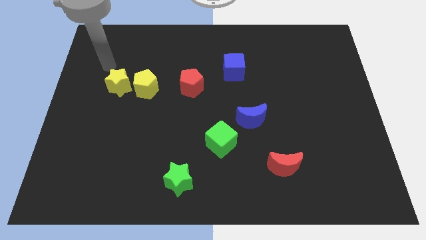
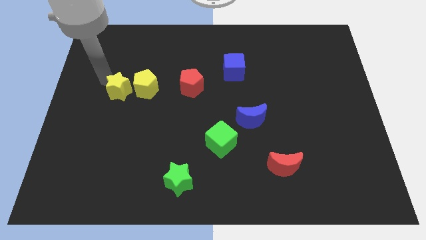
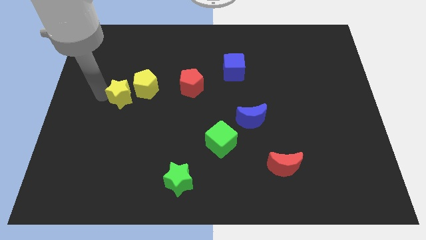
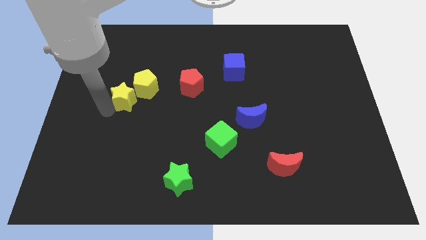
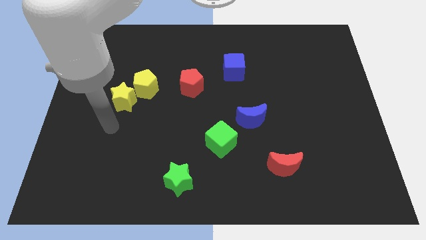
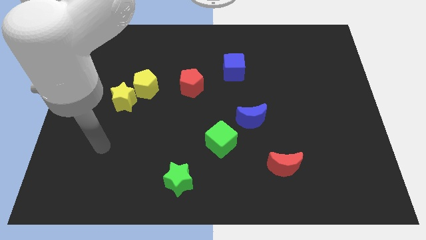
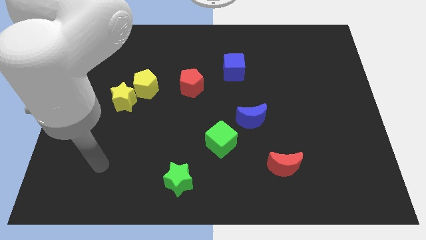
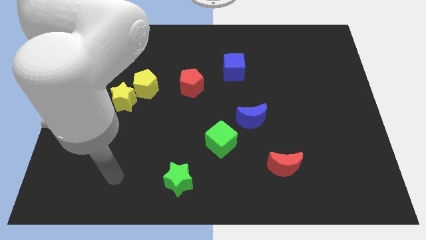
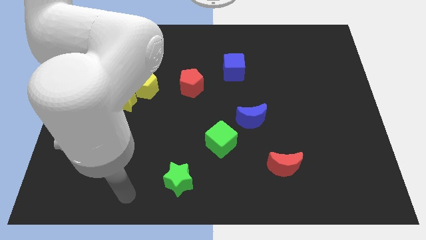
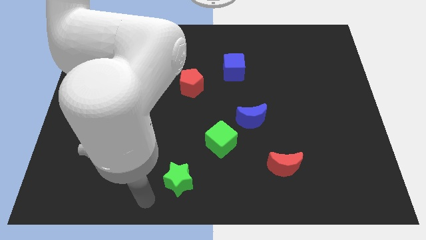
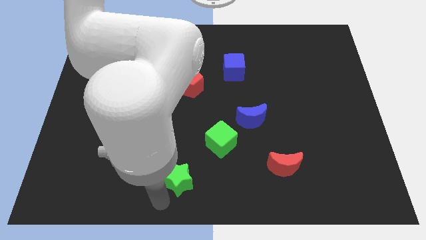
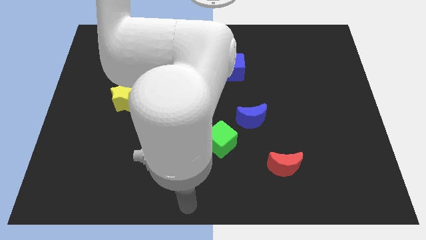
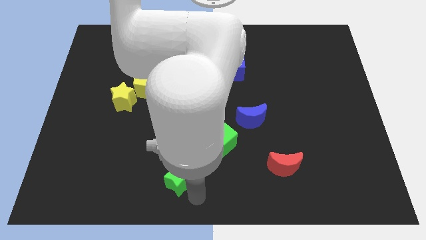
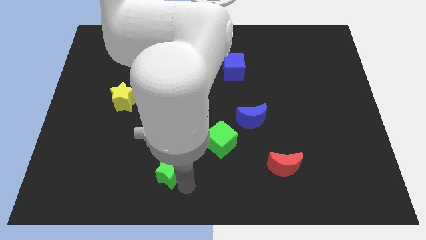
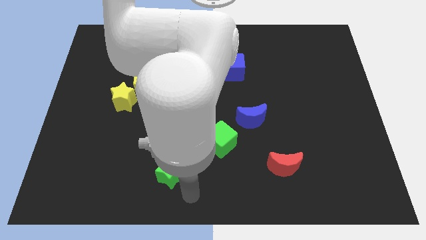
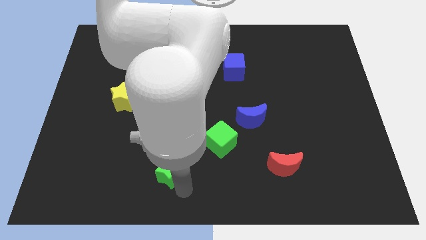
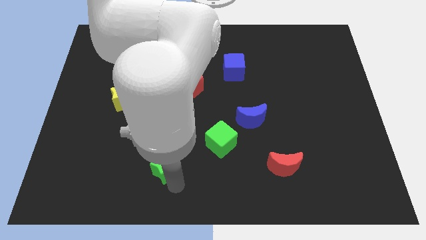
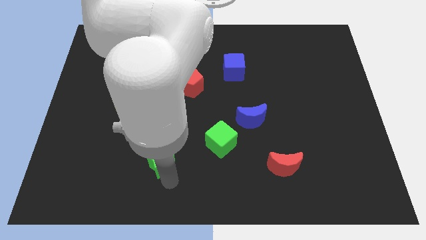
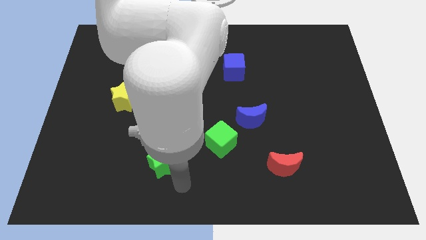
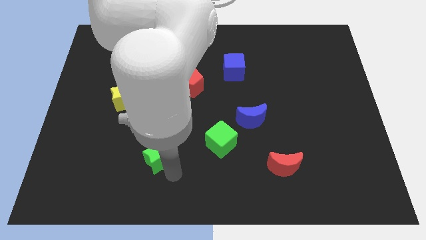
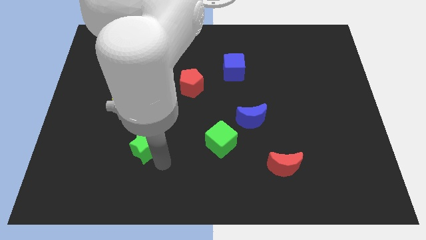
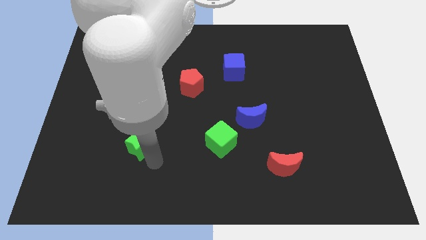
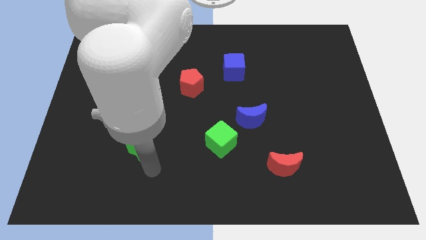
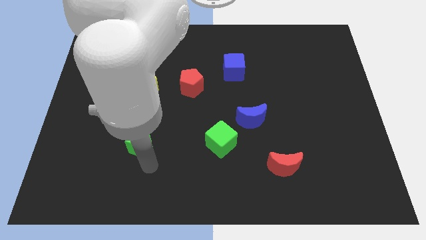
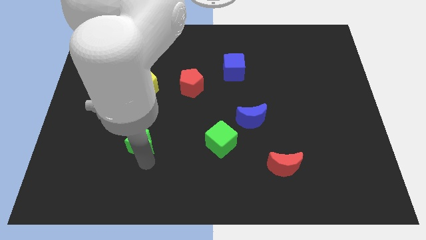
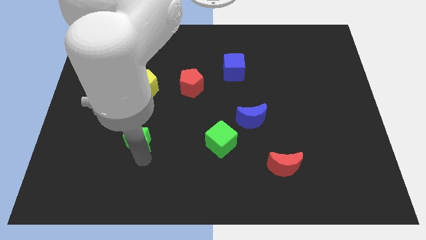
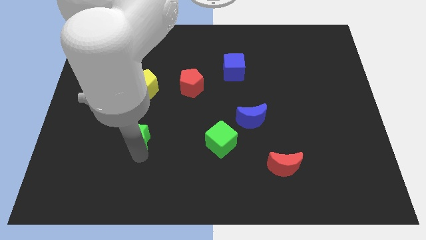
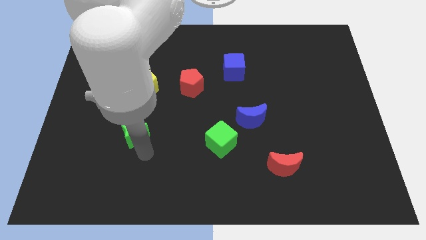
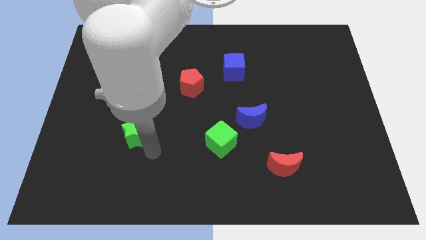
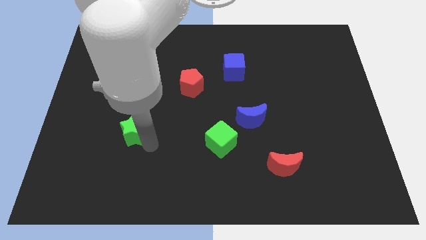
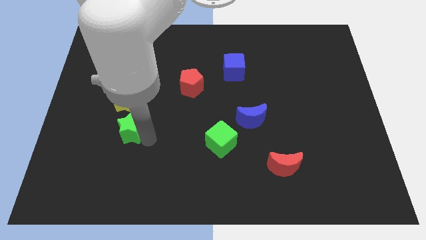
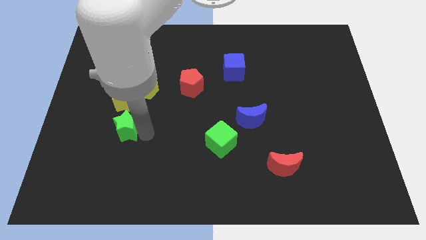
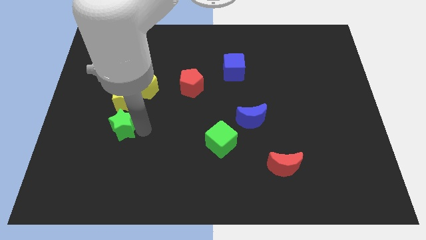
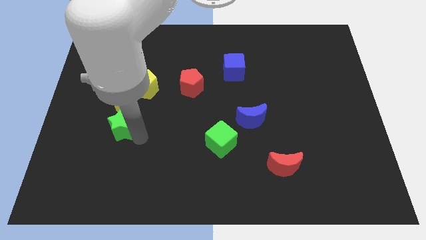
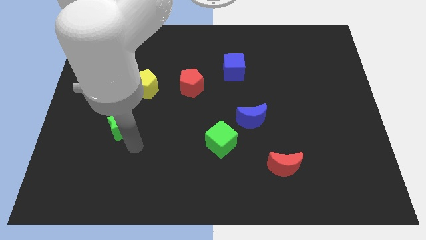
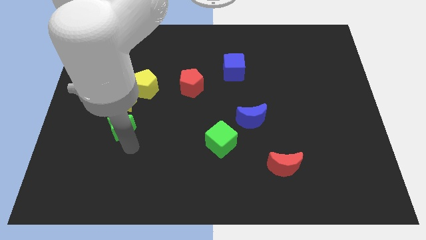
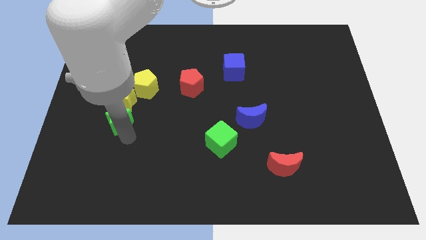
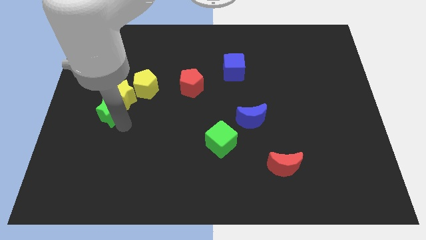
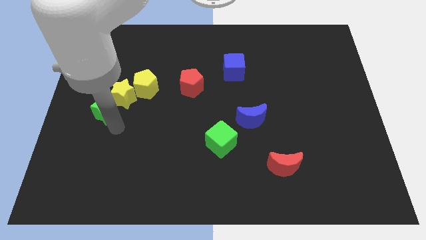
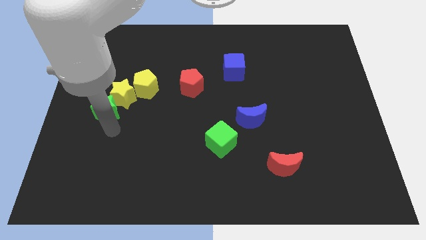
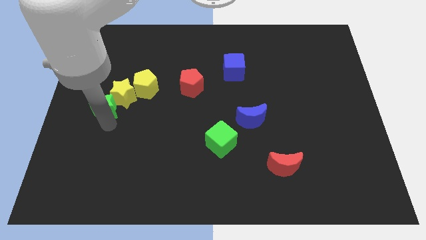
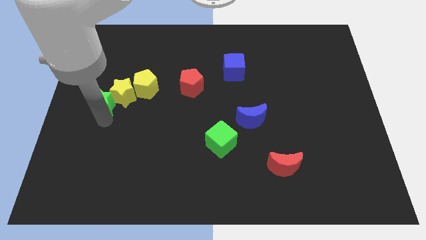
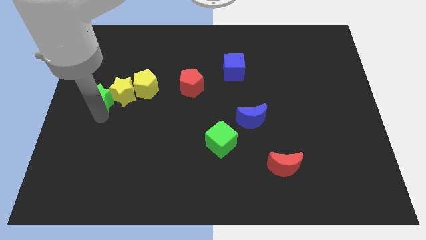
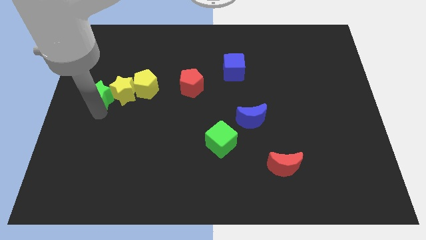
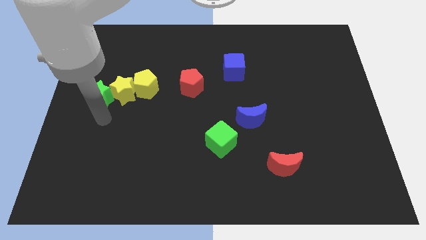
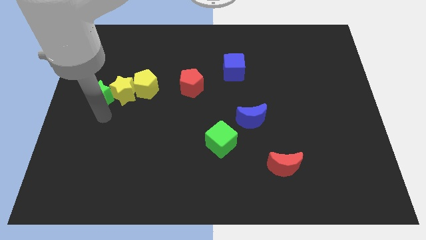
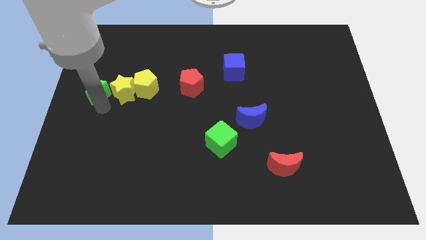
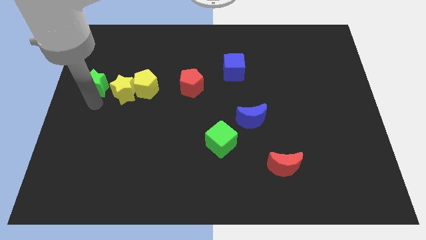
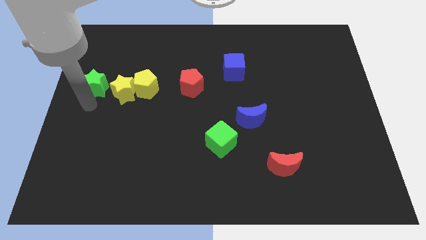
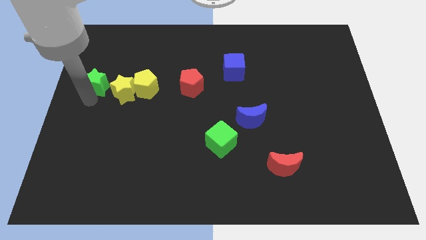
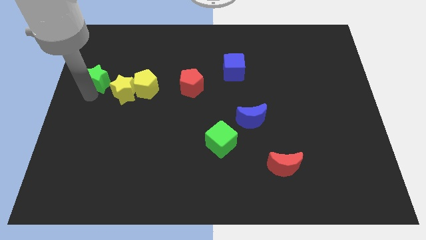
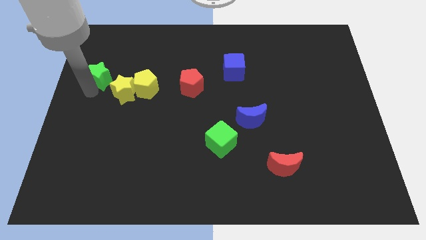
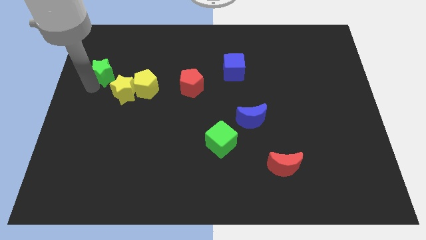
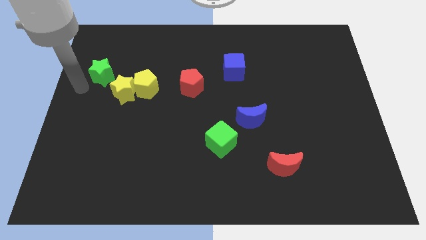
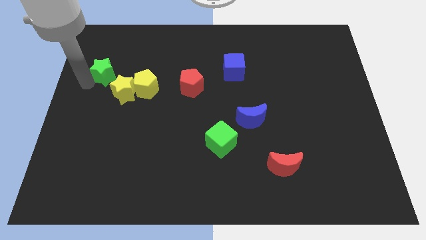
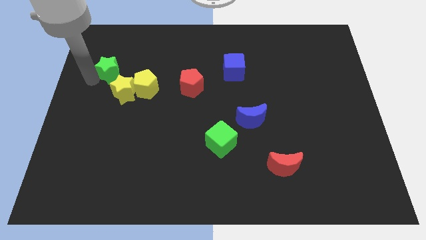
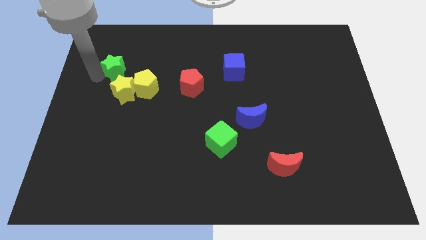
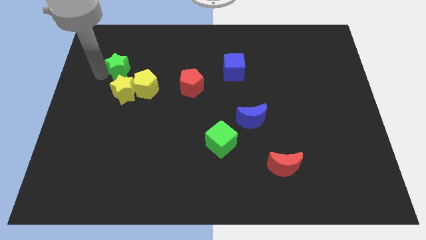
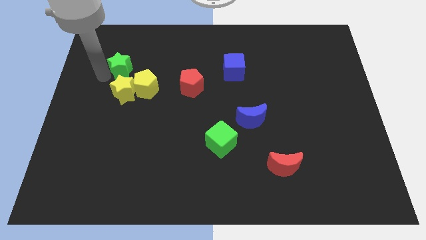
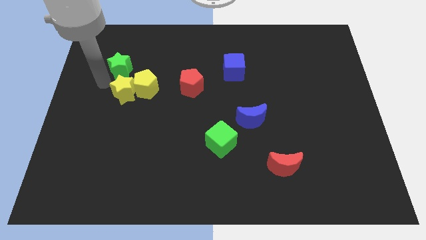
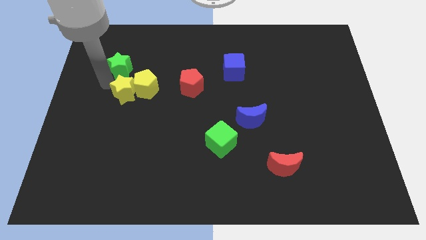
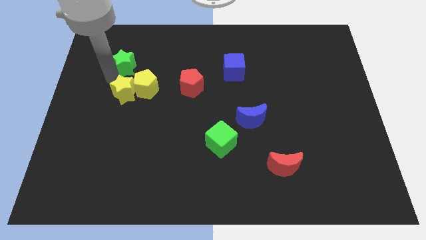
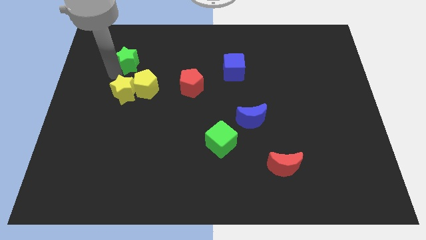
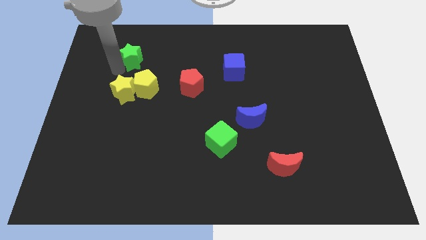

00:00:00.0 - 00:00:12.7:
push the green star to the top of the yellow pentagon

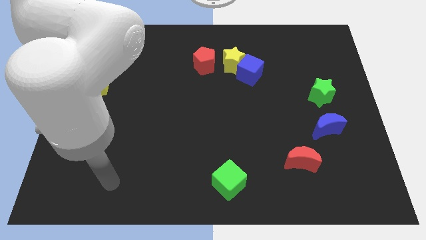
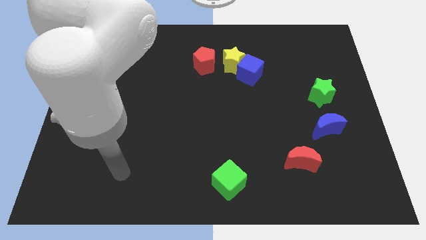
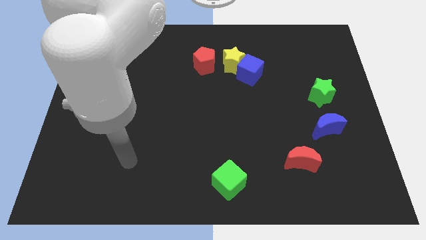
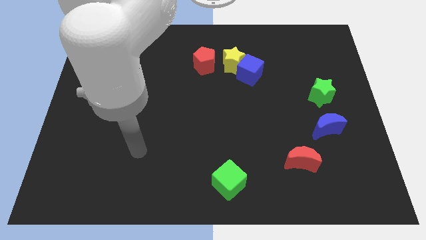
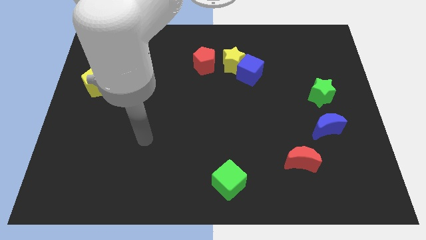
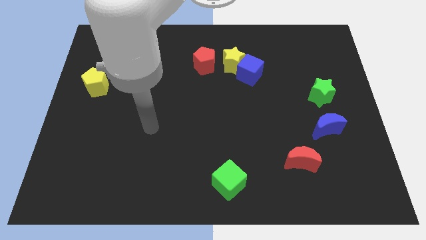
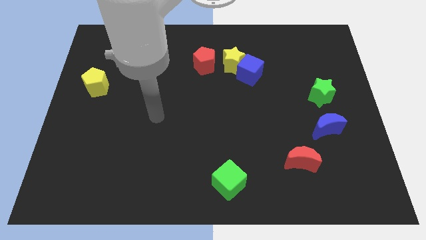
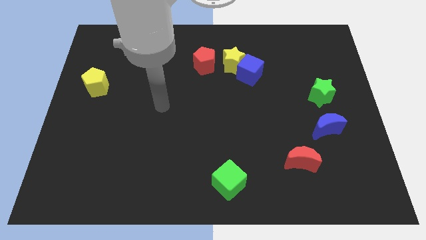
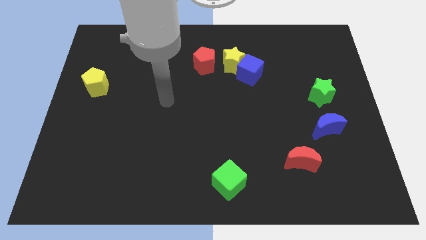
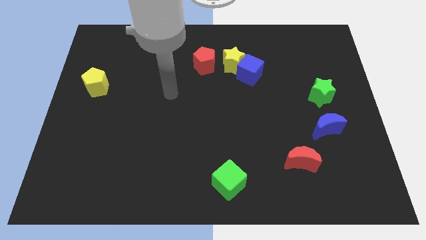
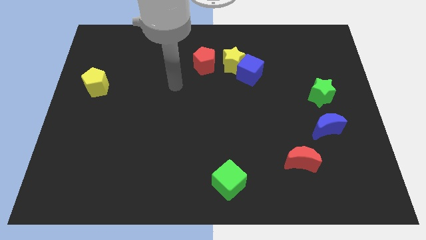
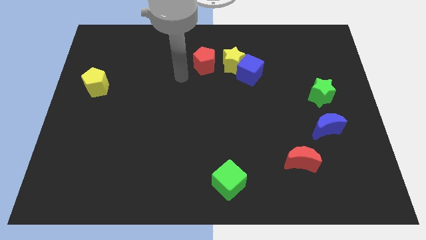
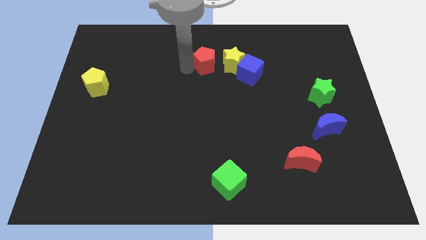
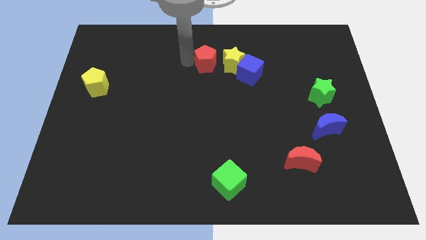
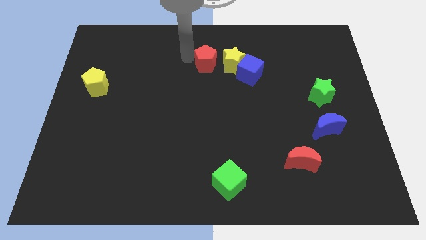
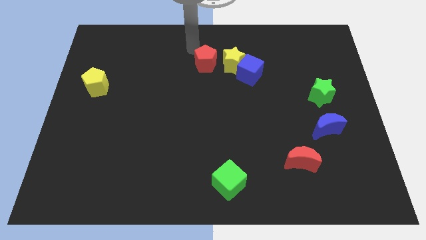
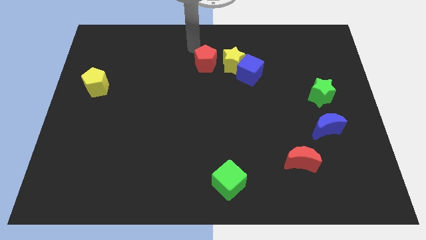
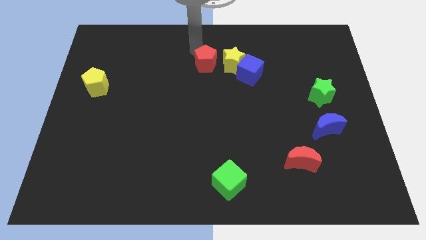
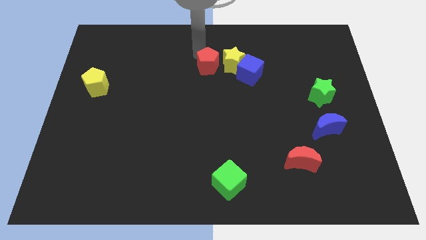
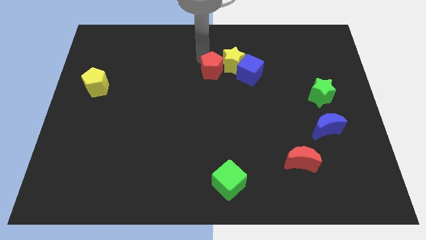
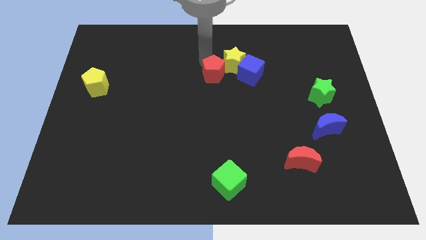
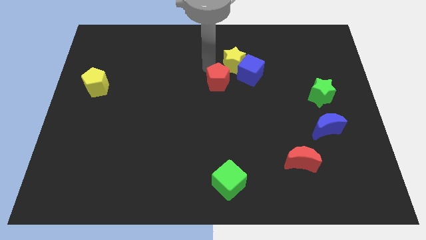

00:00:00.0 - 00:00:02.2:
put the red pentagon to the bottom of the yellow star
